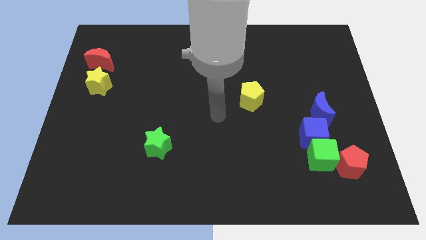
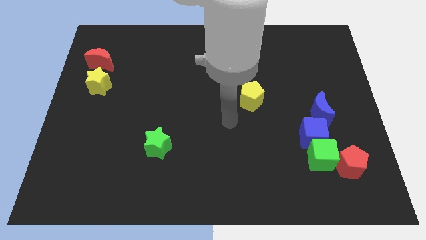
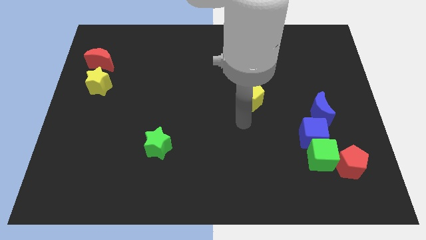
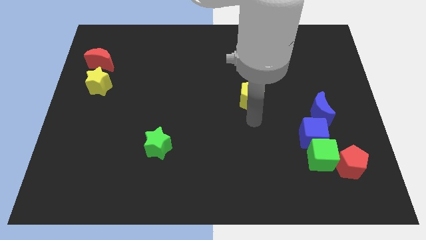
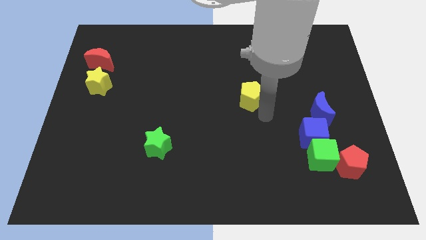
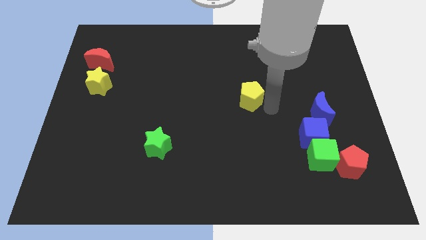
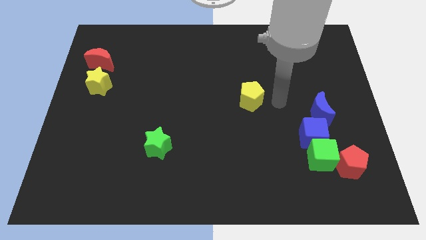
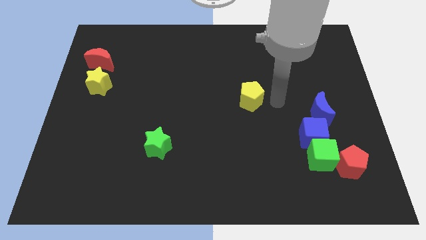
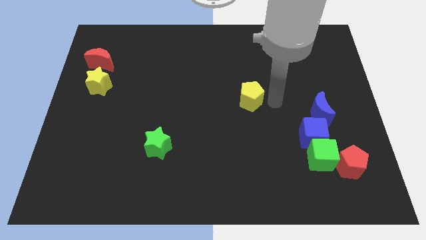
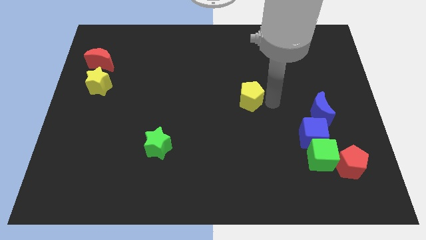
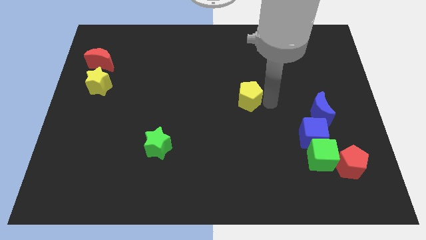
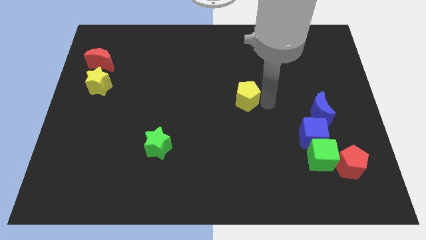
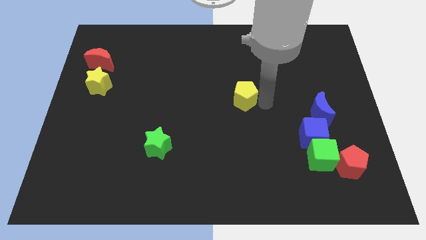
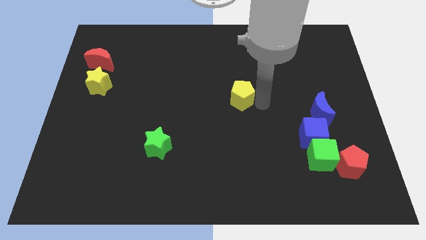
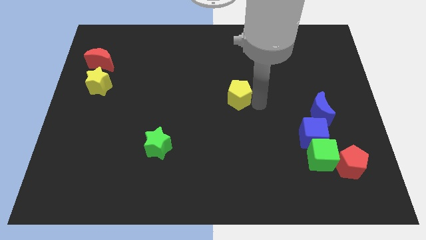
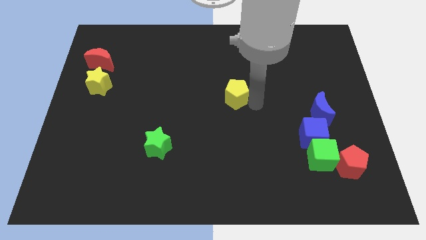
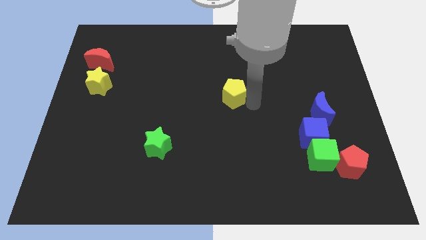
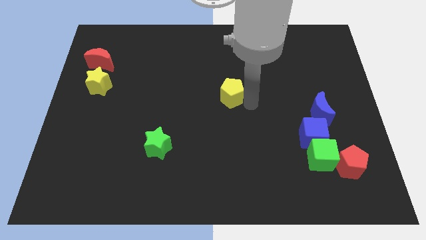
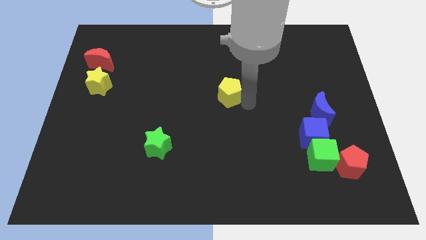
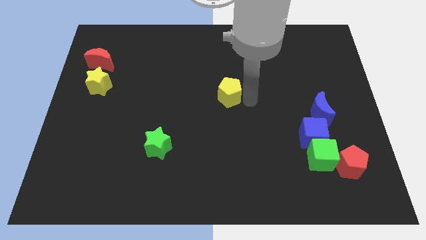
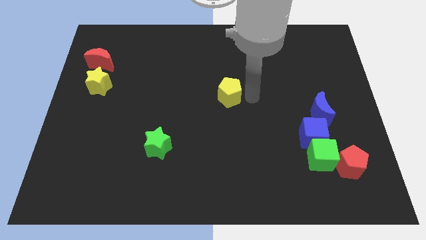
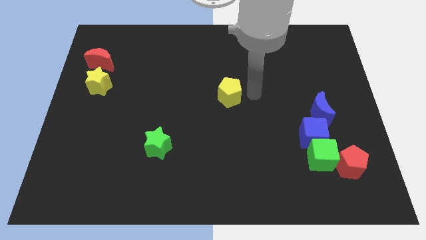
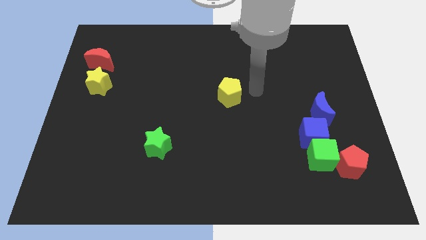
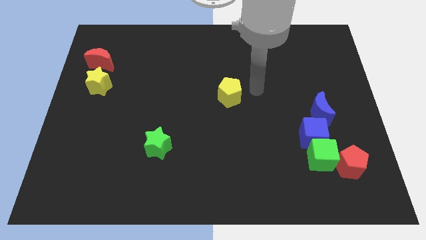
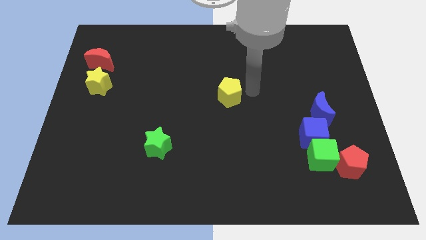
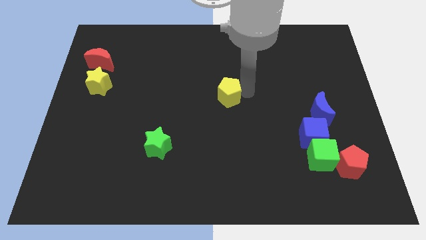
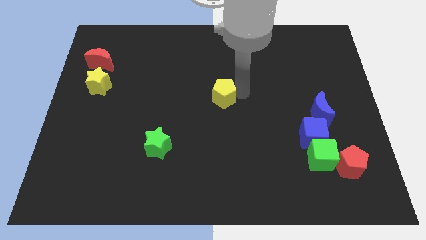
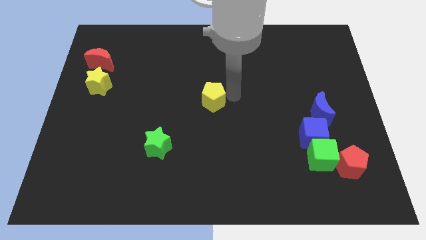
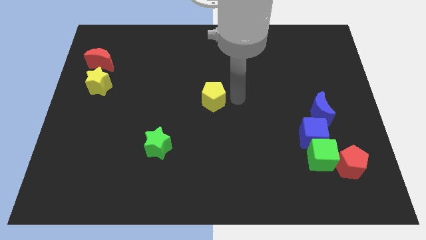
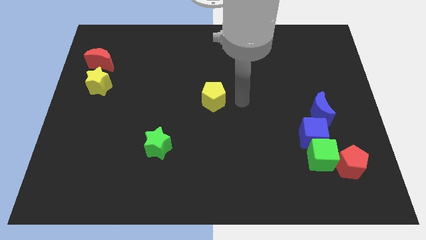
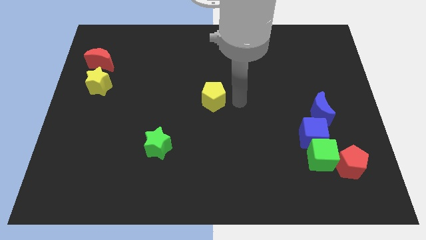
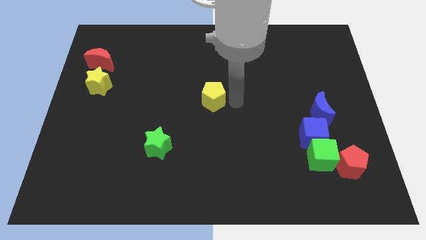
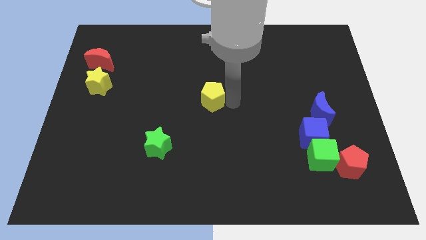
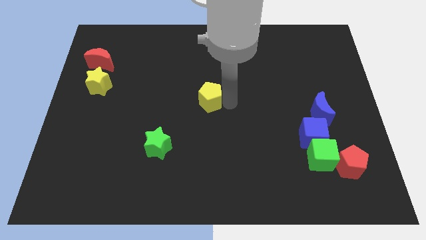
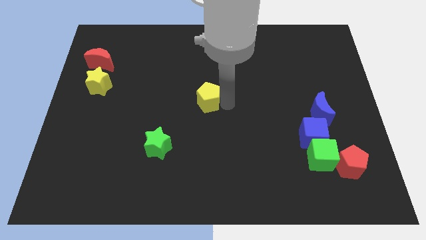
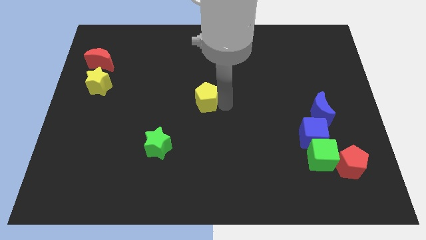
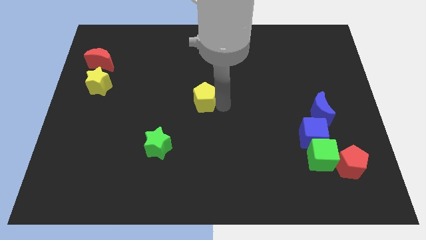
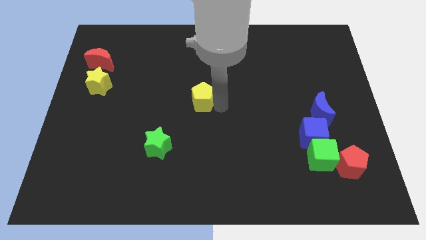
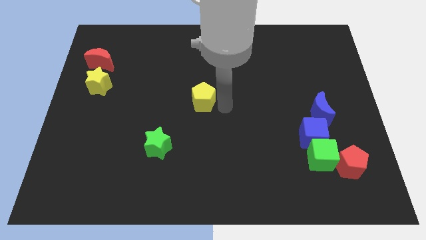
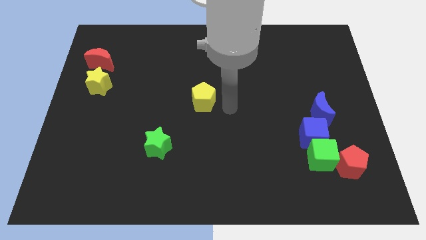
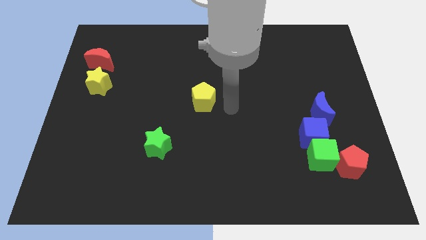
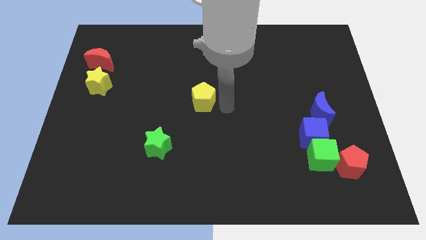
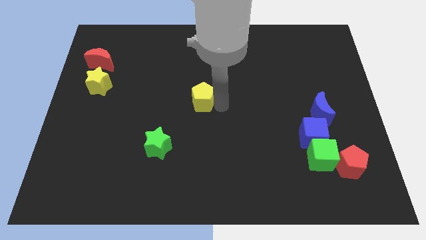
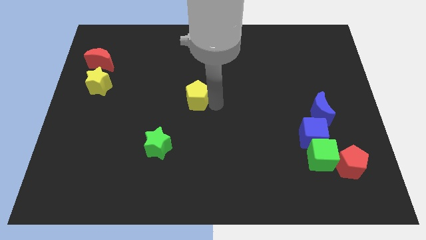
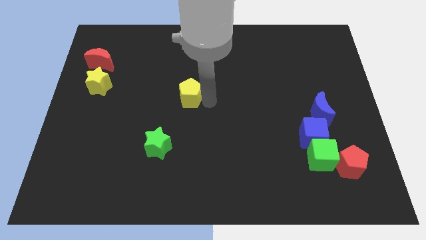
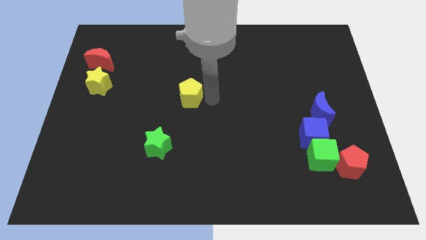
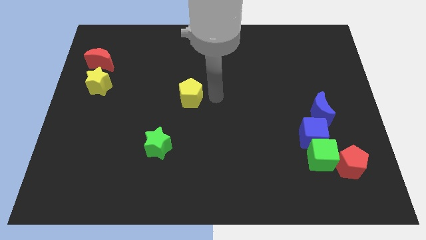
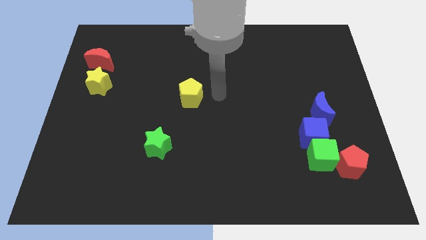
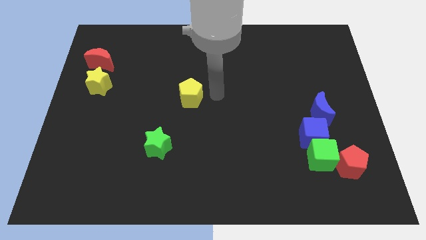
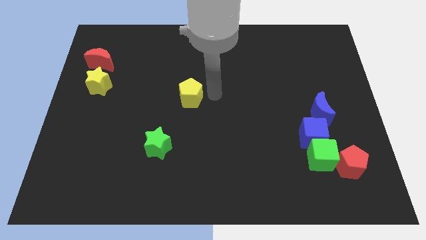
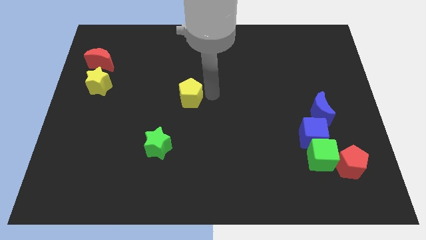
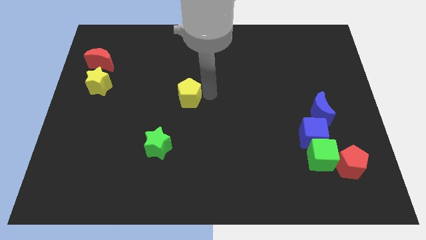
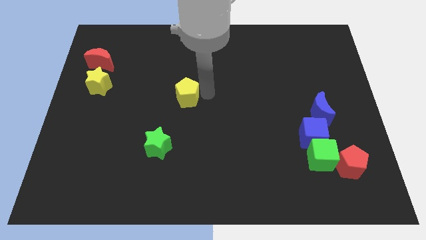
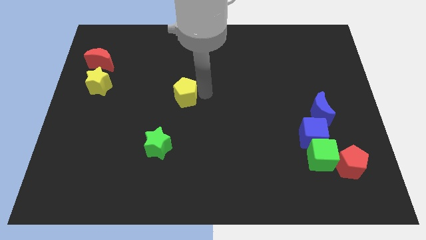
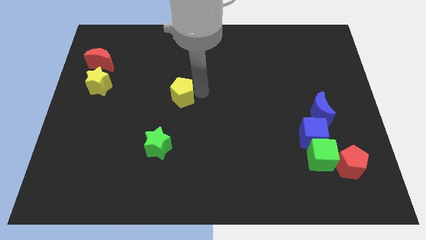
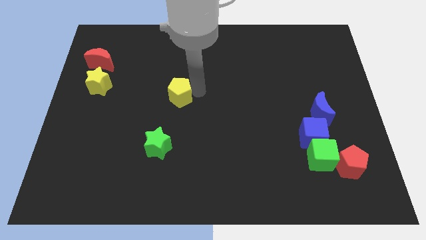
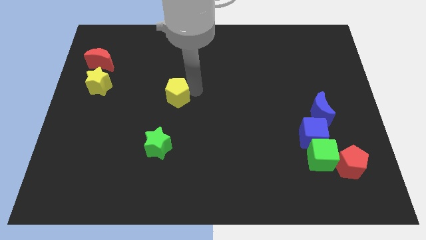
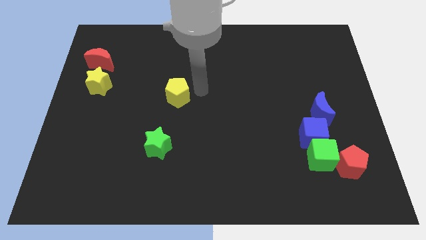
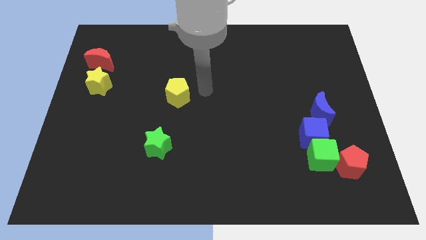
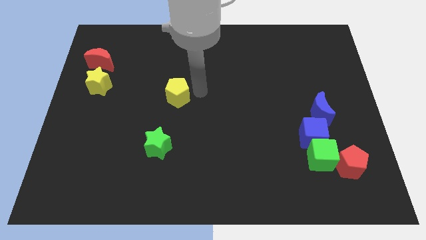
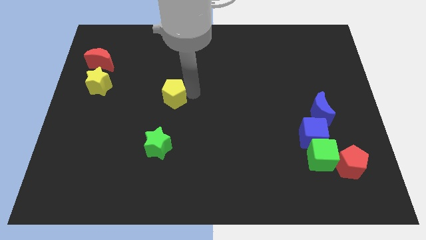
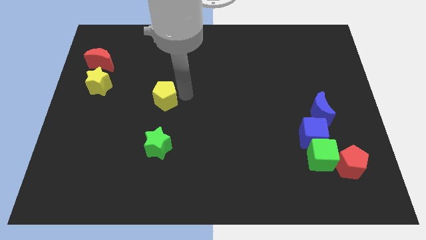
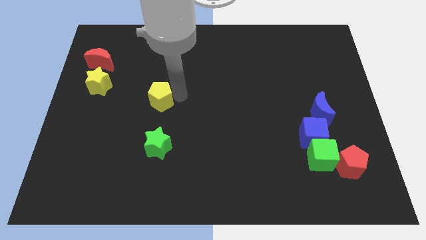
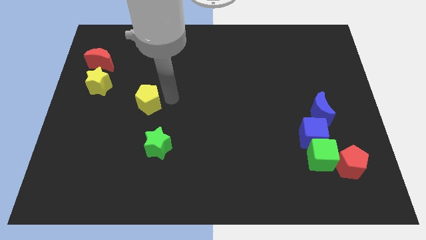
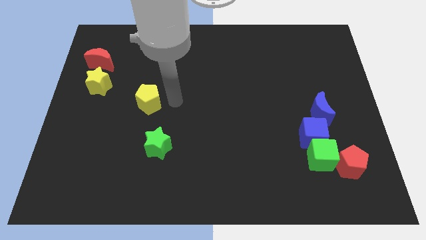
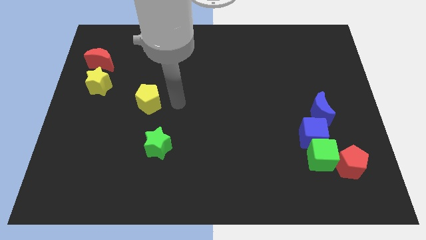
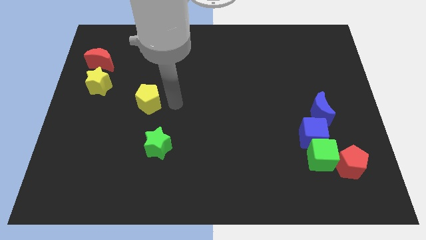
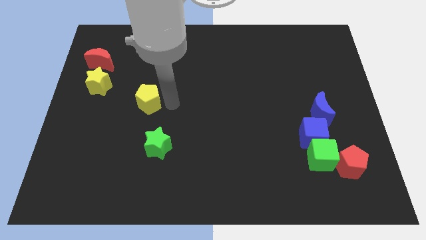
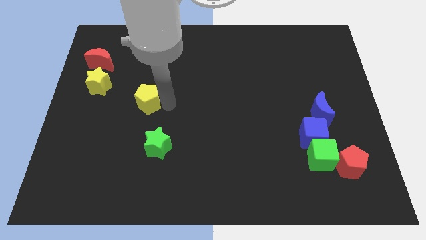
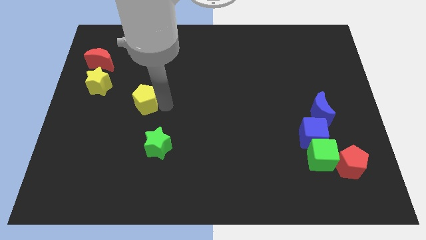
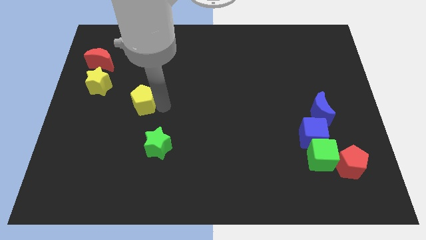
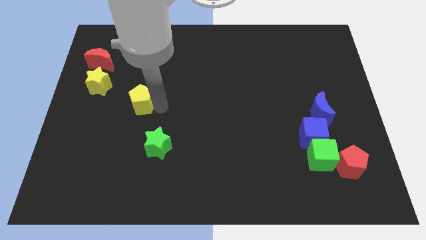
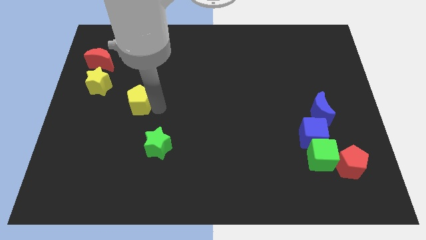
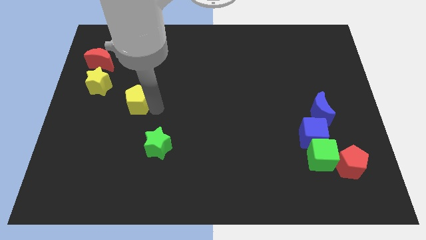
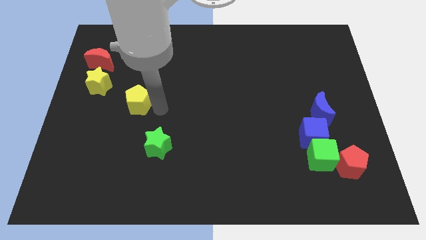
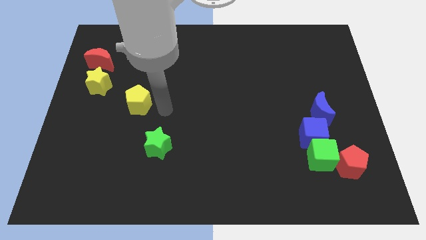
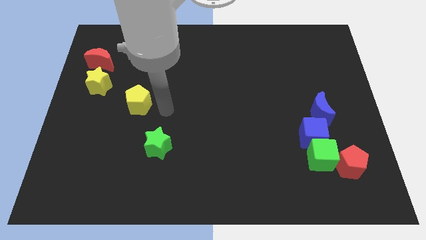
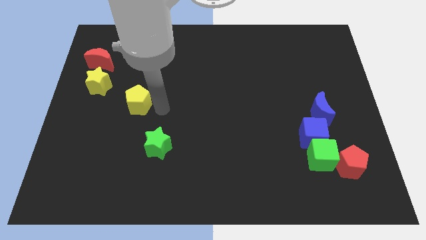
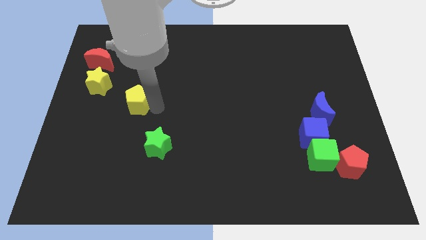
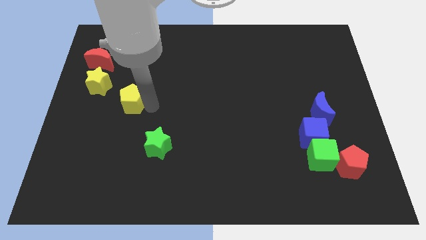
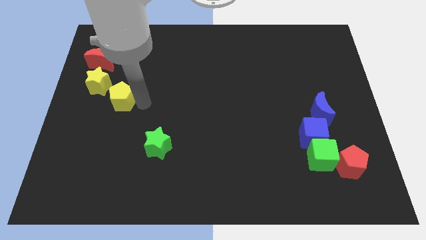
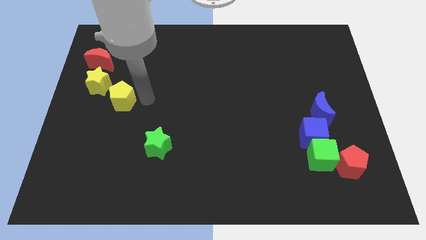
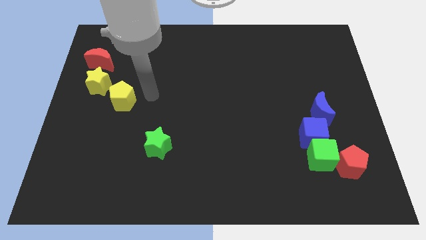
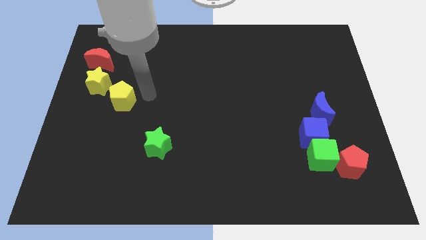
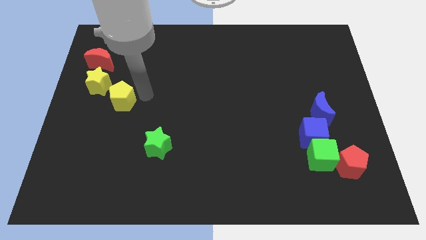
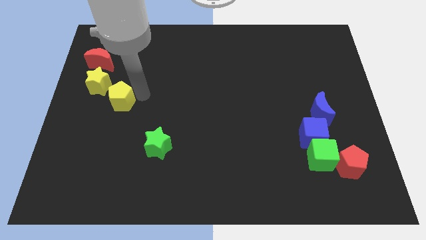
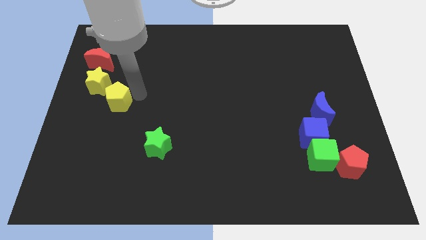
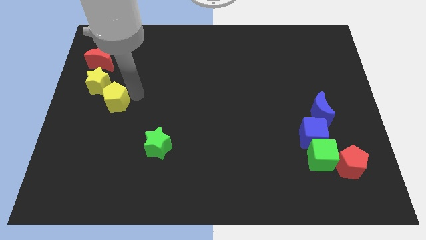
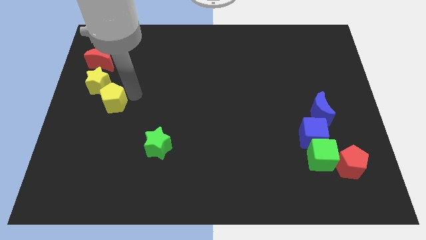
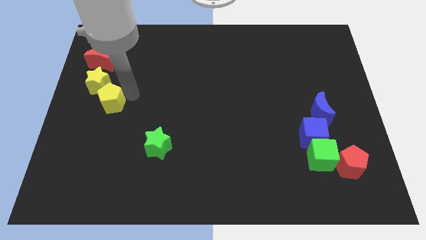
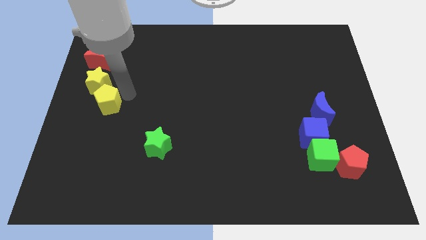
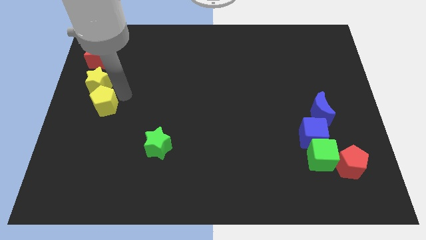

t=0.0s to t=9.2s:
slide the yellow pentagon to the center left
